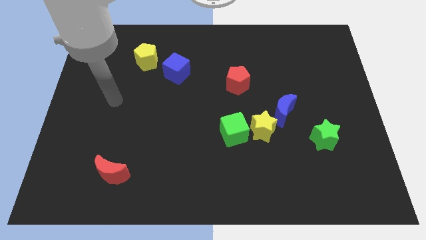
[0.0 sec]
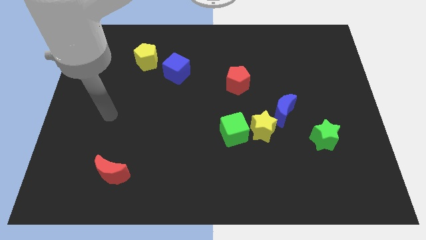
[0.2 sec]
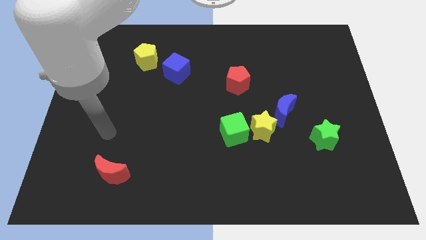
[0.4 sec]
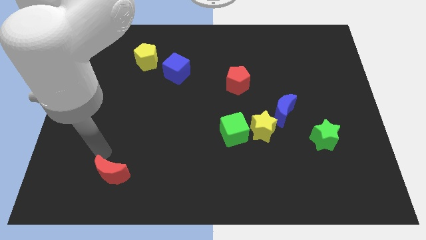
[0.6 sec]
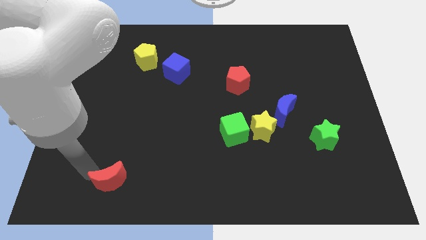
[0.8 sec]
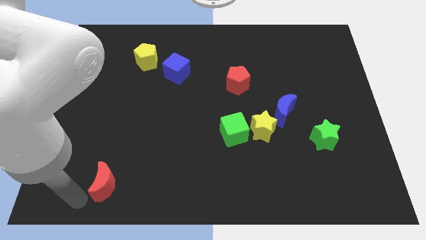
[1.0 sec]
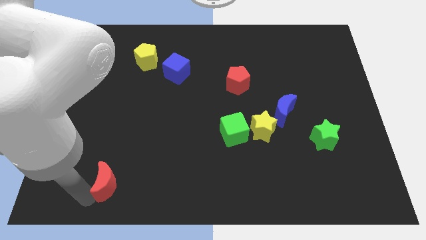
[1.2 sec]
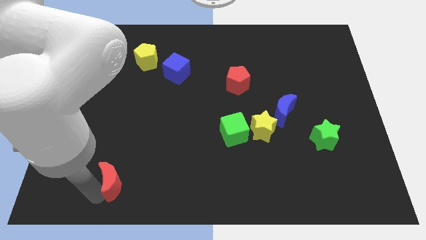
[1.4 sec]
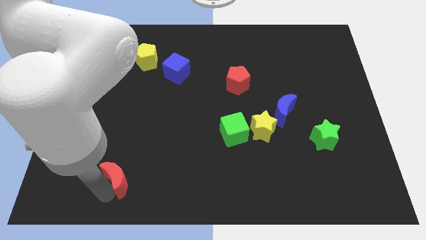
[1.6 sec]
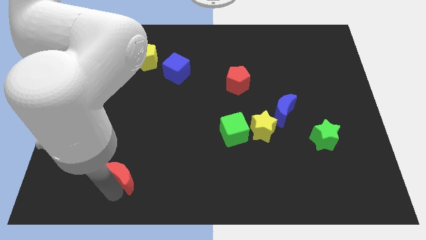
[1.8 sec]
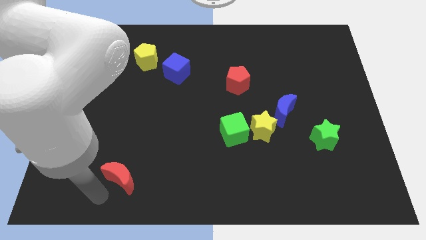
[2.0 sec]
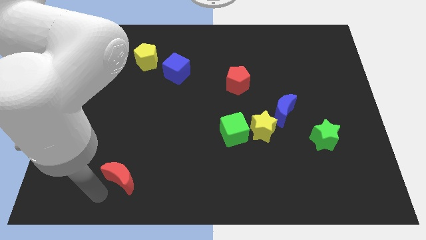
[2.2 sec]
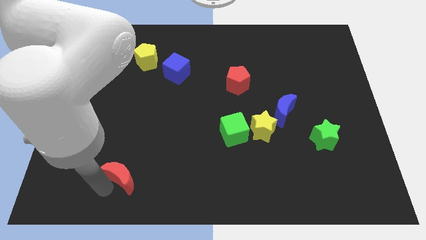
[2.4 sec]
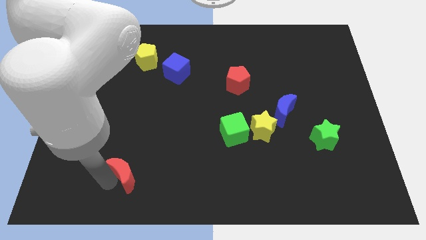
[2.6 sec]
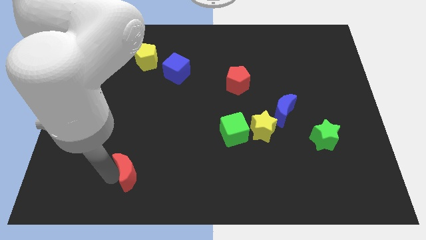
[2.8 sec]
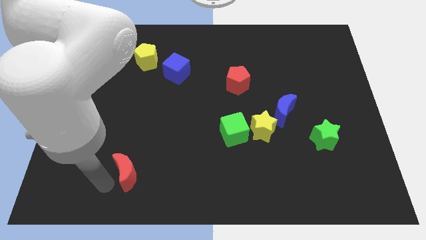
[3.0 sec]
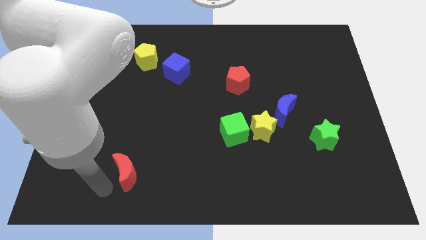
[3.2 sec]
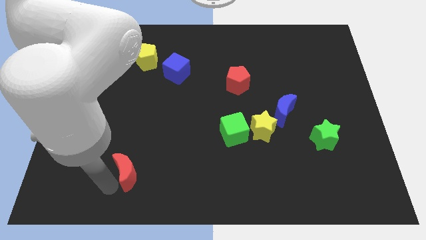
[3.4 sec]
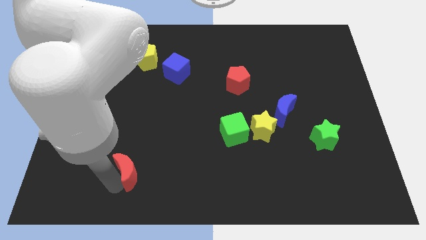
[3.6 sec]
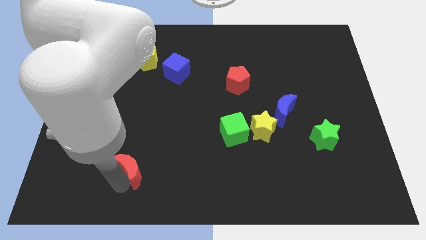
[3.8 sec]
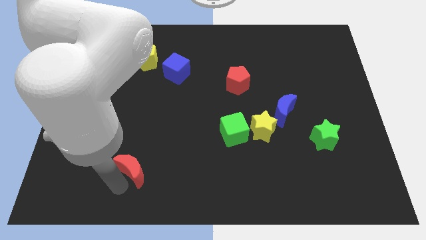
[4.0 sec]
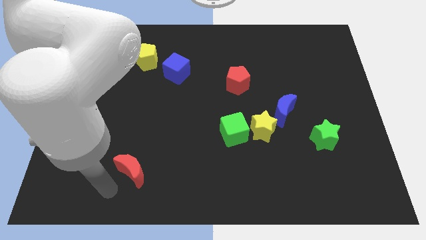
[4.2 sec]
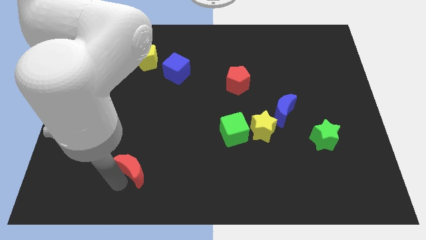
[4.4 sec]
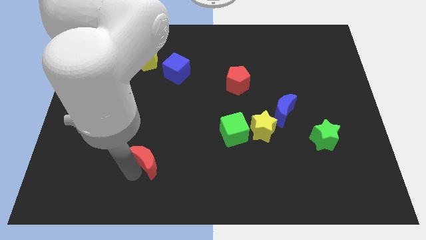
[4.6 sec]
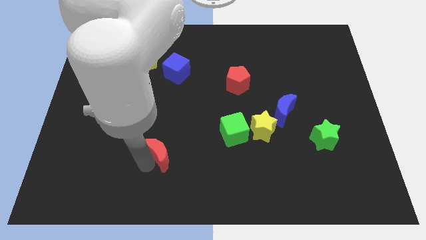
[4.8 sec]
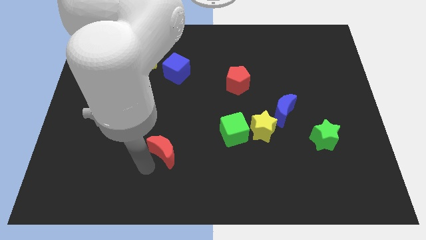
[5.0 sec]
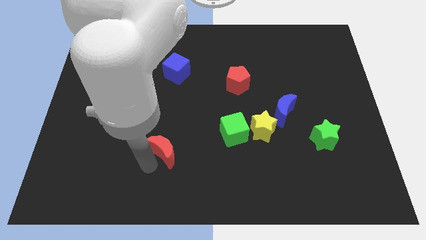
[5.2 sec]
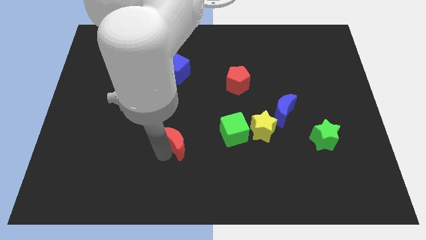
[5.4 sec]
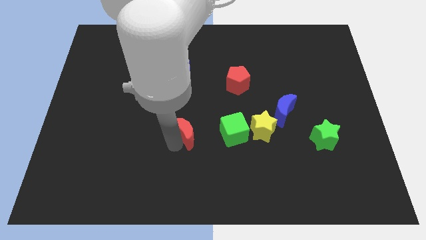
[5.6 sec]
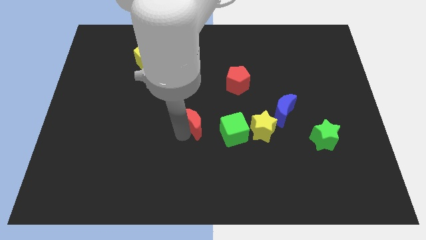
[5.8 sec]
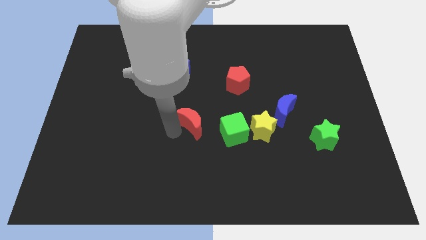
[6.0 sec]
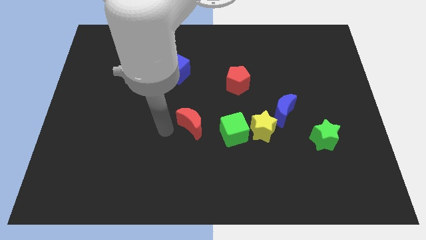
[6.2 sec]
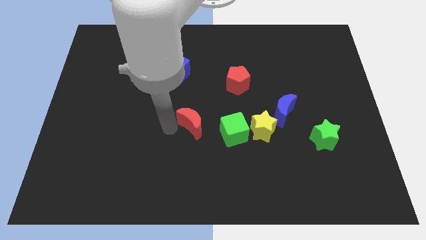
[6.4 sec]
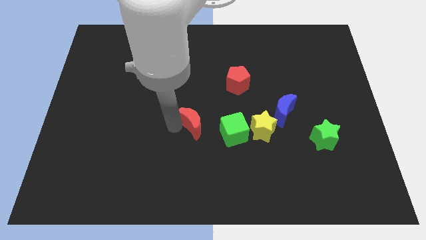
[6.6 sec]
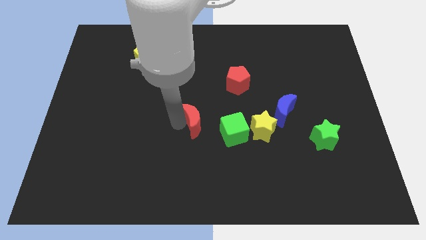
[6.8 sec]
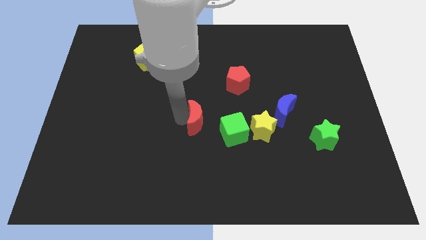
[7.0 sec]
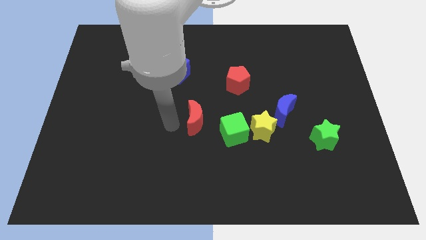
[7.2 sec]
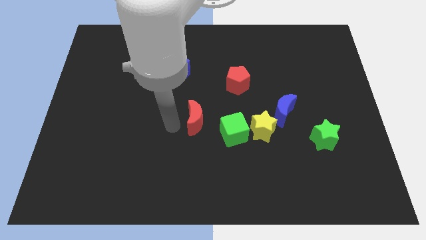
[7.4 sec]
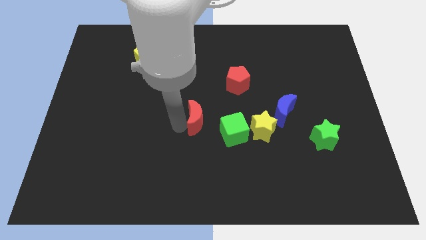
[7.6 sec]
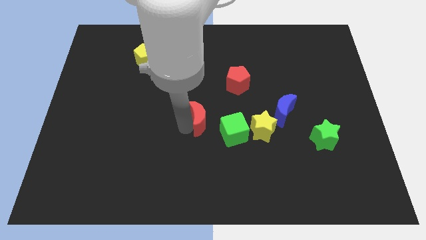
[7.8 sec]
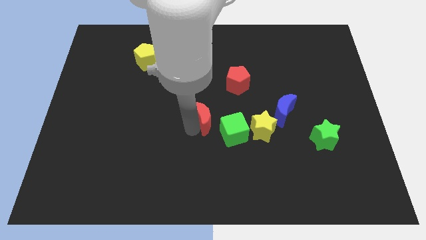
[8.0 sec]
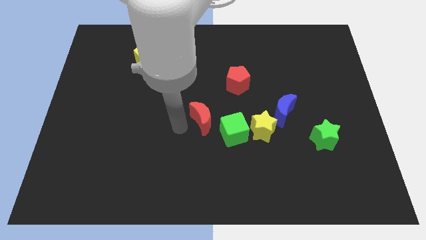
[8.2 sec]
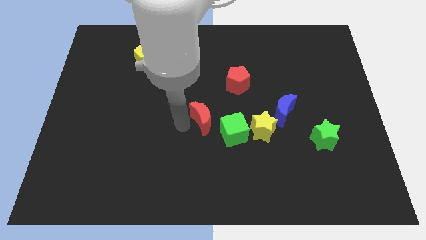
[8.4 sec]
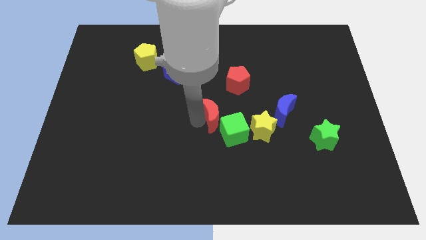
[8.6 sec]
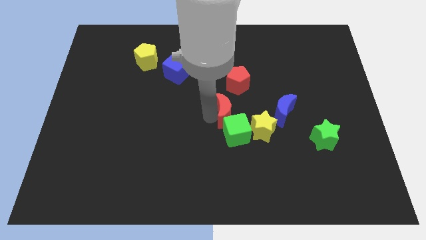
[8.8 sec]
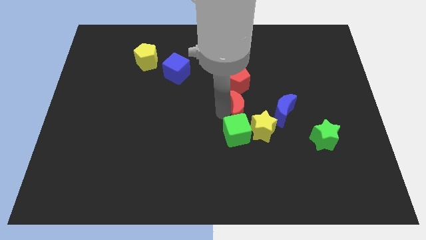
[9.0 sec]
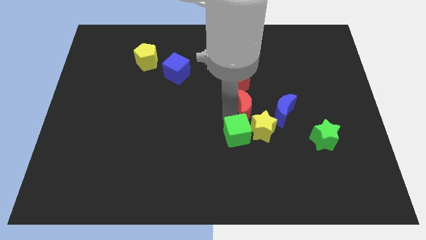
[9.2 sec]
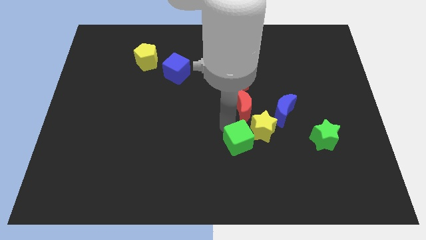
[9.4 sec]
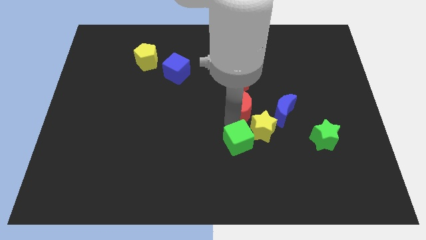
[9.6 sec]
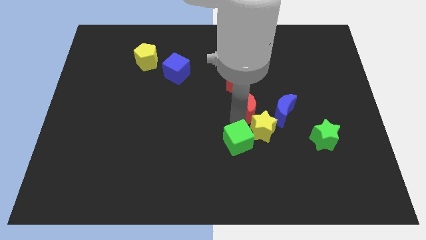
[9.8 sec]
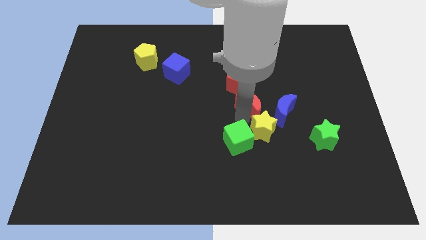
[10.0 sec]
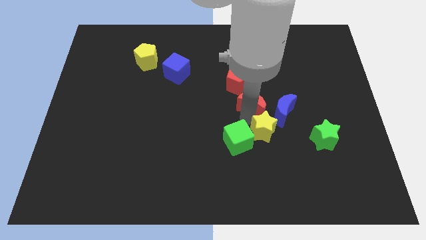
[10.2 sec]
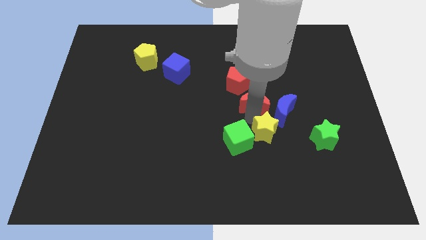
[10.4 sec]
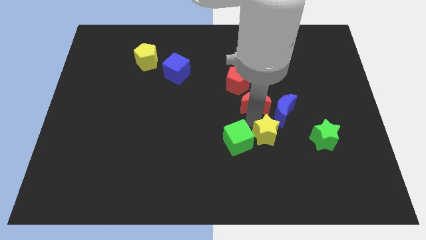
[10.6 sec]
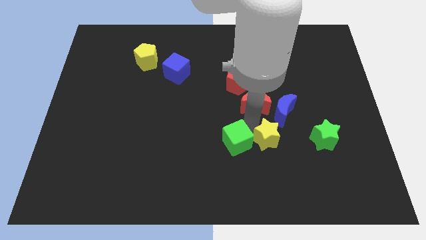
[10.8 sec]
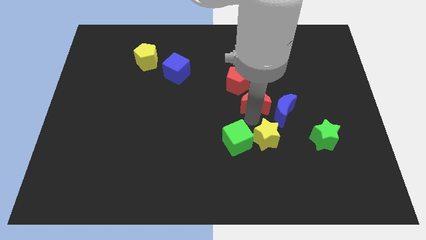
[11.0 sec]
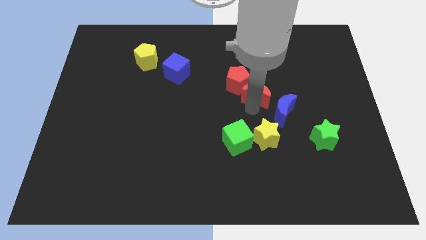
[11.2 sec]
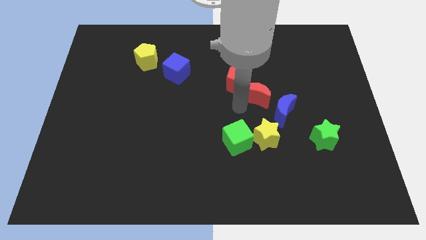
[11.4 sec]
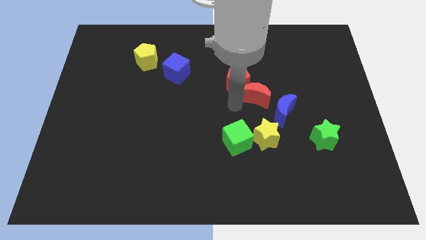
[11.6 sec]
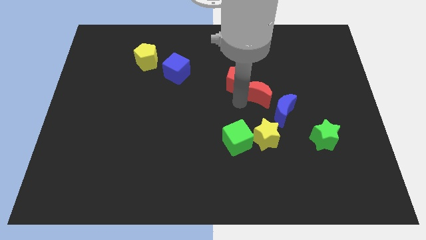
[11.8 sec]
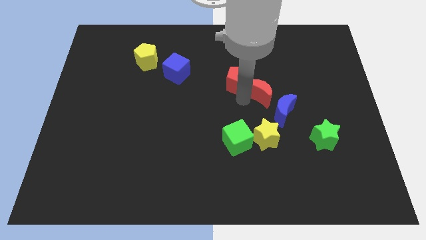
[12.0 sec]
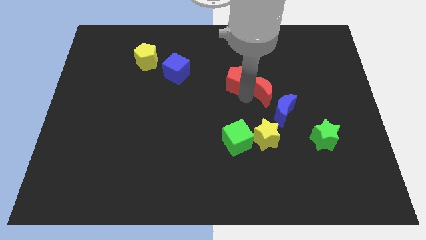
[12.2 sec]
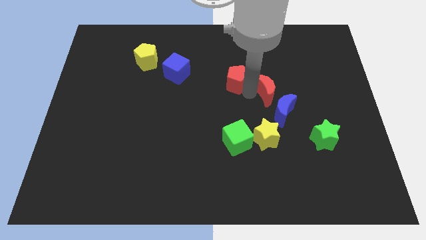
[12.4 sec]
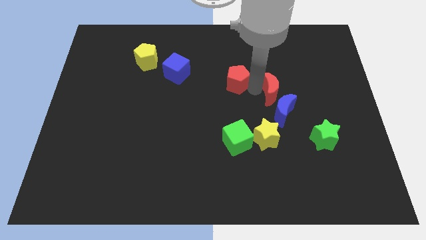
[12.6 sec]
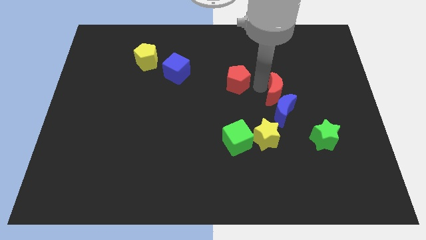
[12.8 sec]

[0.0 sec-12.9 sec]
slide the red moon to the top right side of the blue moon
